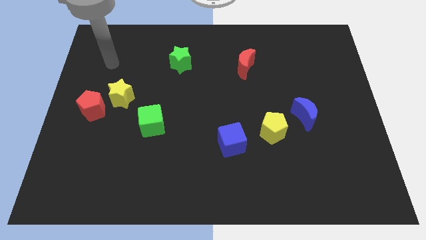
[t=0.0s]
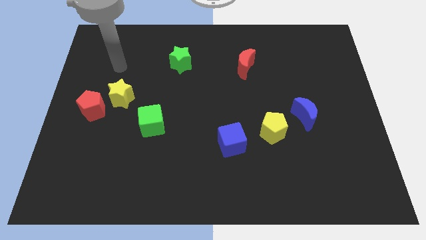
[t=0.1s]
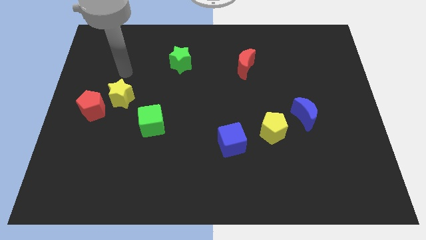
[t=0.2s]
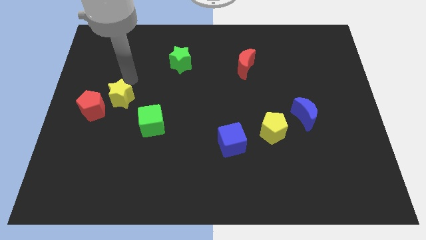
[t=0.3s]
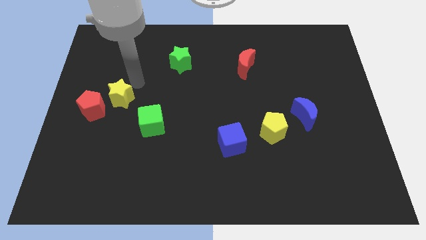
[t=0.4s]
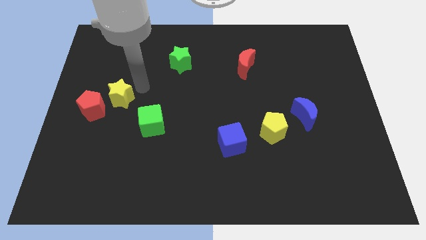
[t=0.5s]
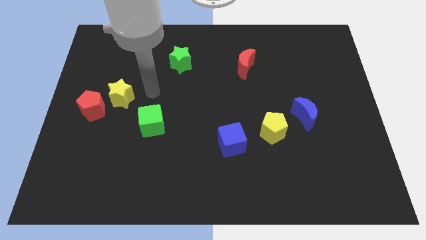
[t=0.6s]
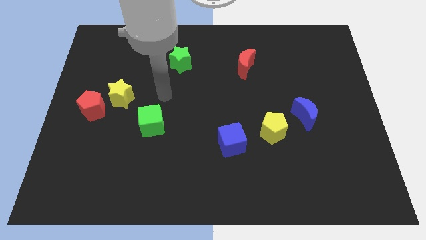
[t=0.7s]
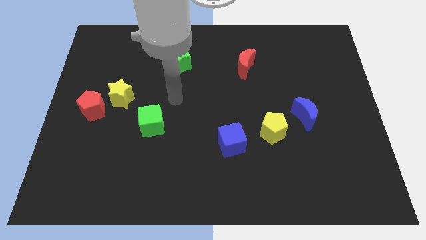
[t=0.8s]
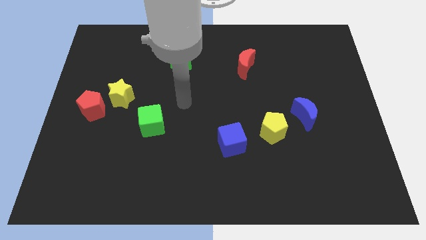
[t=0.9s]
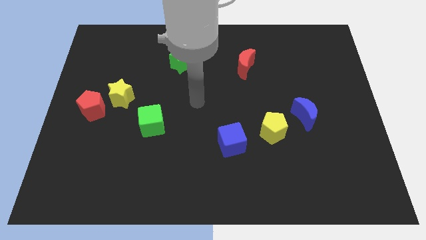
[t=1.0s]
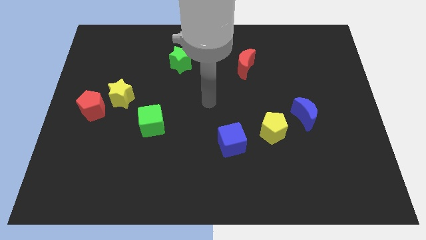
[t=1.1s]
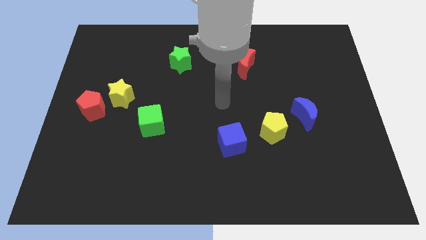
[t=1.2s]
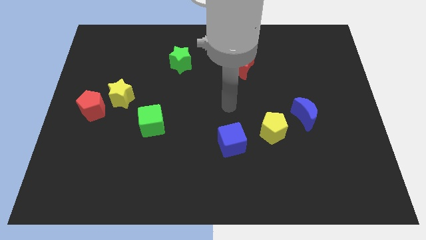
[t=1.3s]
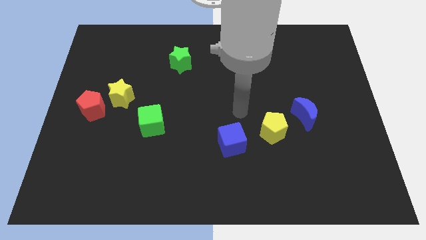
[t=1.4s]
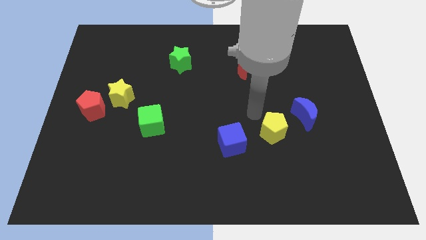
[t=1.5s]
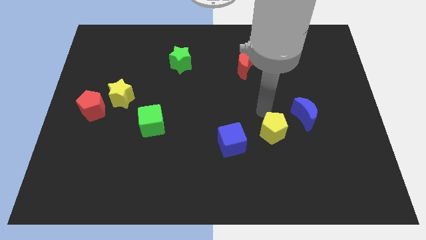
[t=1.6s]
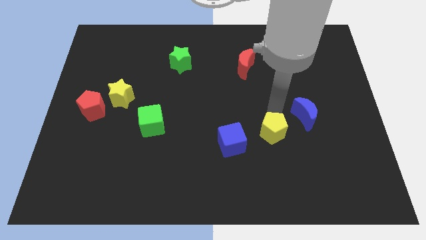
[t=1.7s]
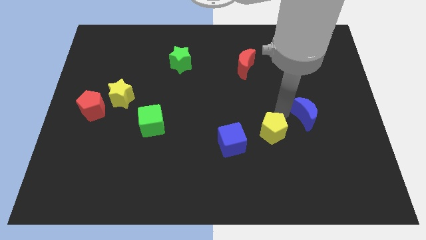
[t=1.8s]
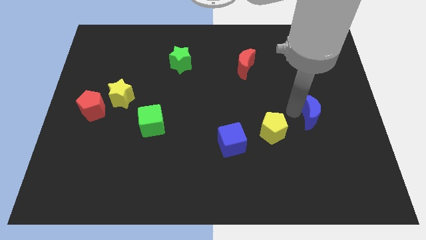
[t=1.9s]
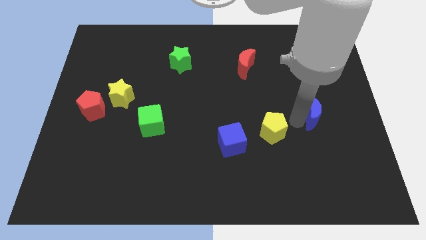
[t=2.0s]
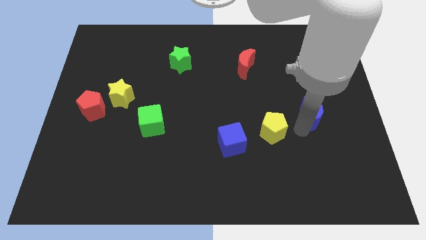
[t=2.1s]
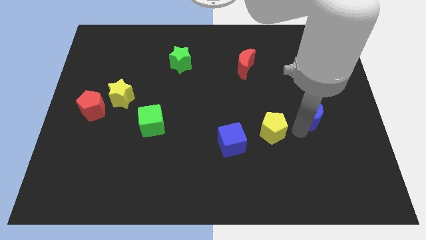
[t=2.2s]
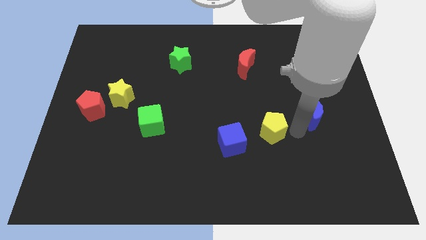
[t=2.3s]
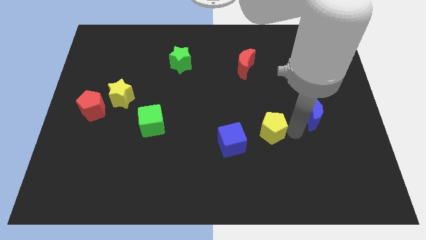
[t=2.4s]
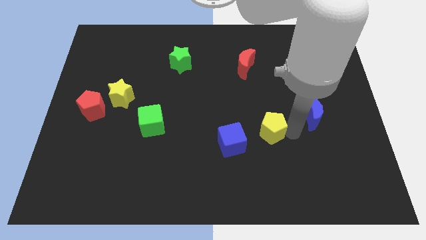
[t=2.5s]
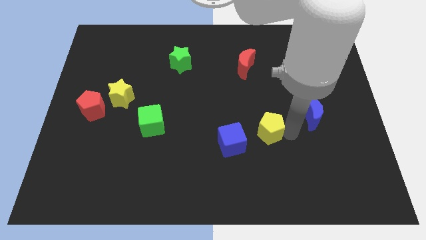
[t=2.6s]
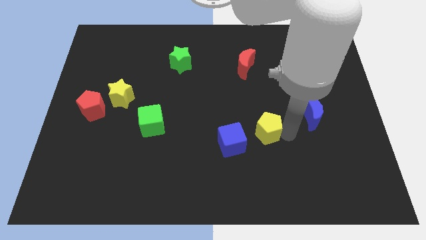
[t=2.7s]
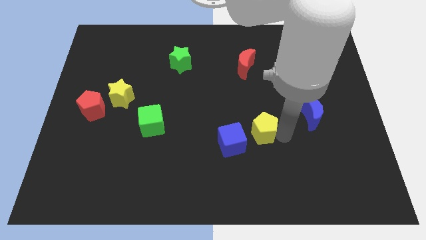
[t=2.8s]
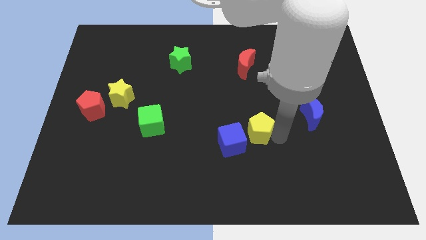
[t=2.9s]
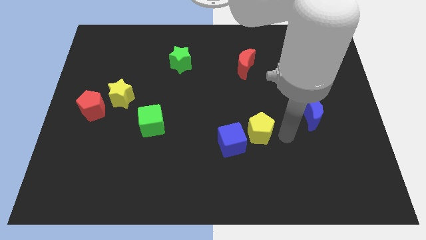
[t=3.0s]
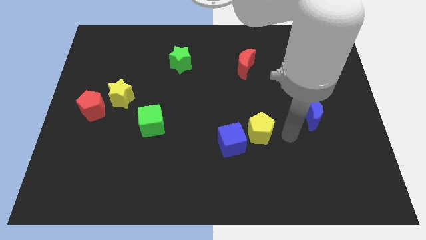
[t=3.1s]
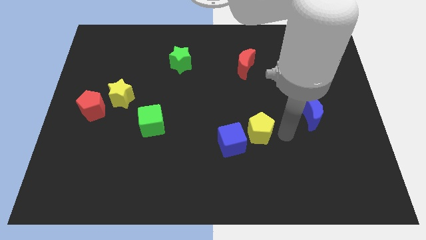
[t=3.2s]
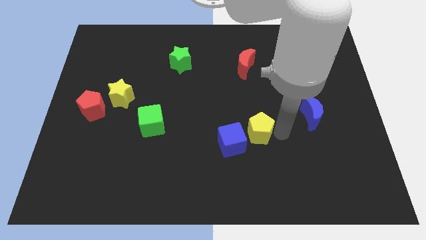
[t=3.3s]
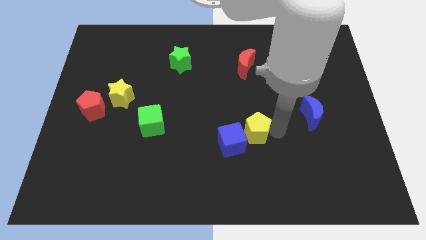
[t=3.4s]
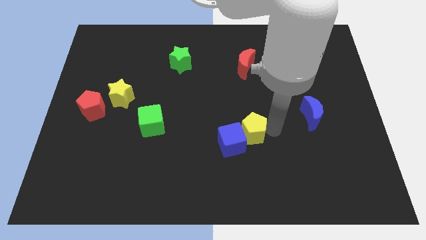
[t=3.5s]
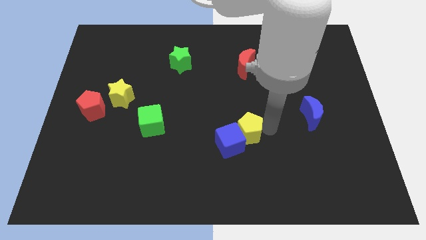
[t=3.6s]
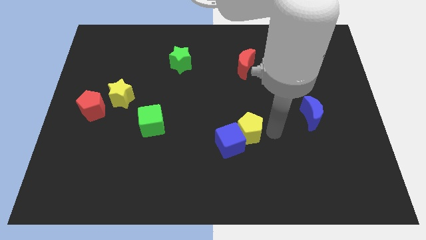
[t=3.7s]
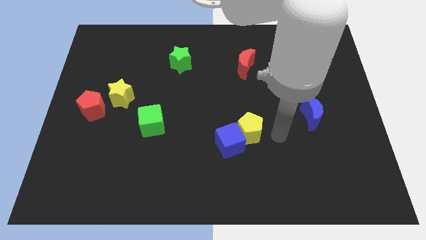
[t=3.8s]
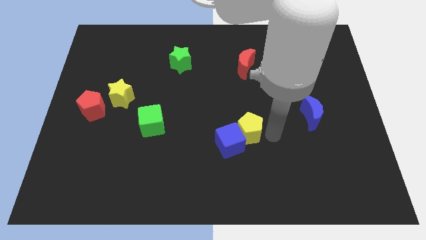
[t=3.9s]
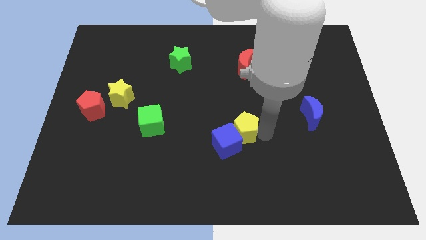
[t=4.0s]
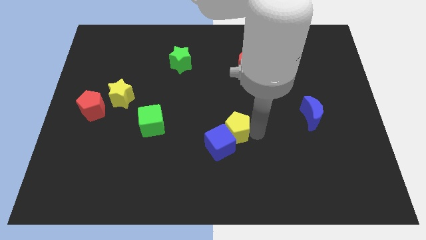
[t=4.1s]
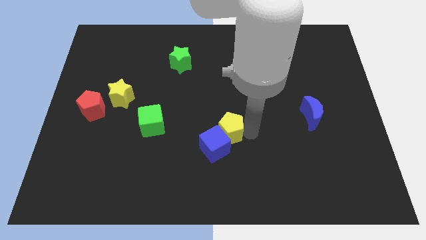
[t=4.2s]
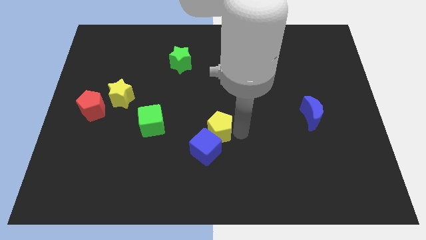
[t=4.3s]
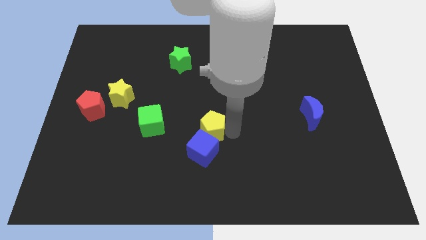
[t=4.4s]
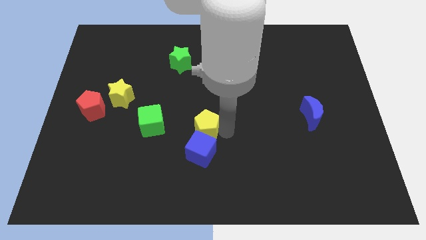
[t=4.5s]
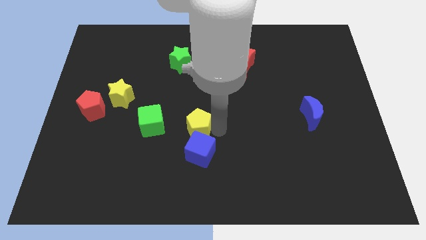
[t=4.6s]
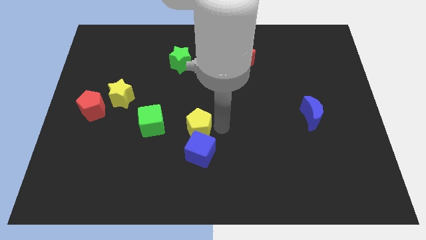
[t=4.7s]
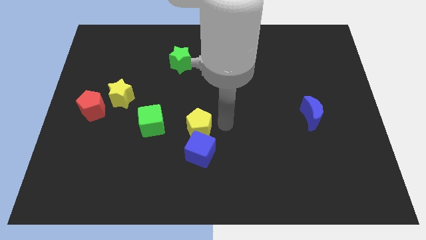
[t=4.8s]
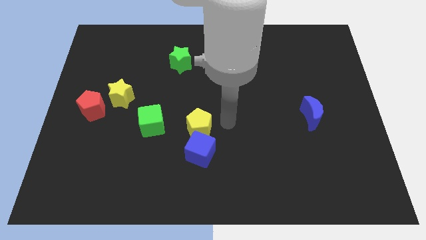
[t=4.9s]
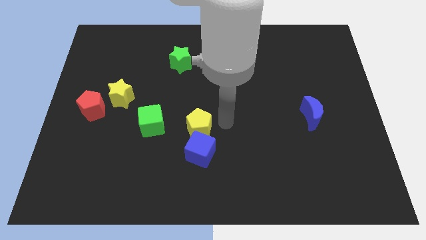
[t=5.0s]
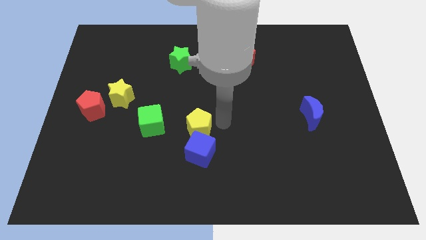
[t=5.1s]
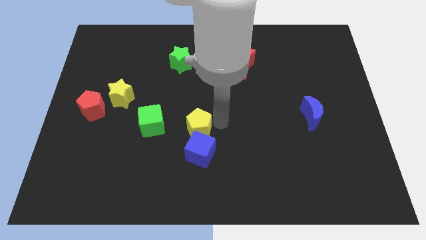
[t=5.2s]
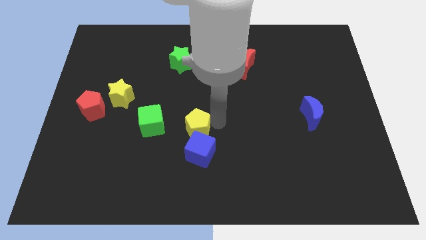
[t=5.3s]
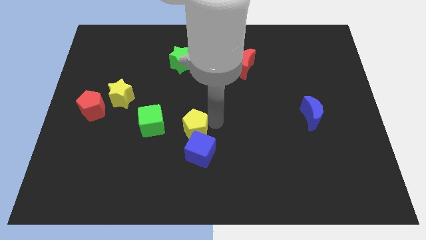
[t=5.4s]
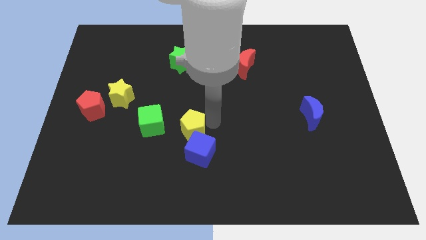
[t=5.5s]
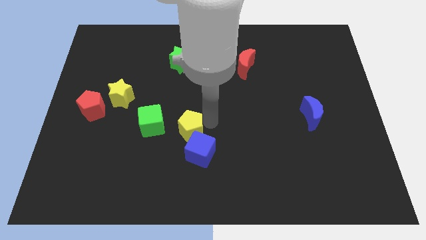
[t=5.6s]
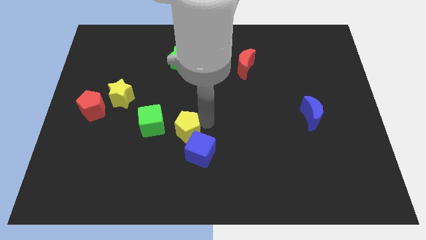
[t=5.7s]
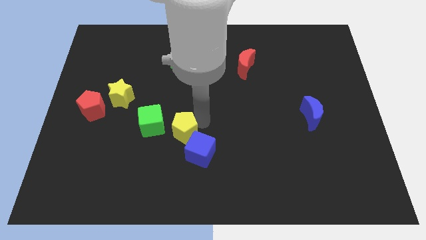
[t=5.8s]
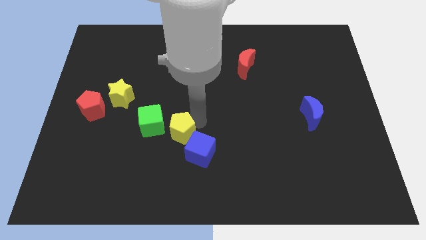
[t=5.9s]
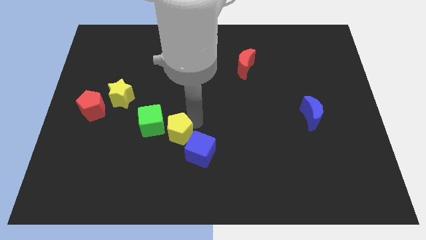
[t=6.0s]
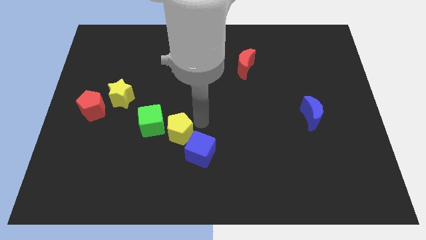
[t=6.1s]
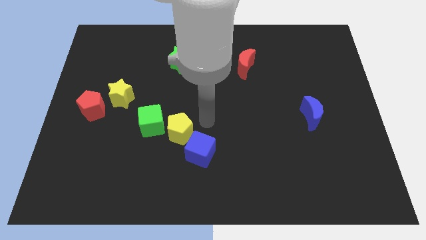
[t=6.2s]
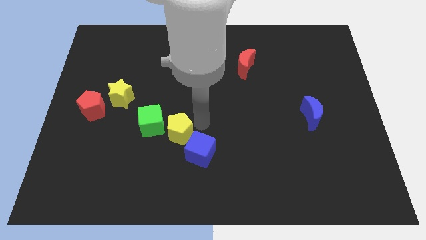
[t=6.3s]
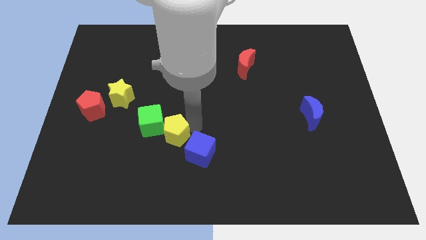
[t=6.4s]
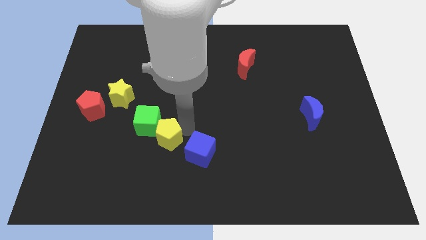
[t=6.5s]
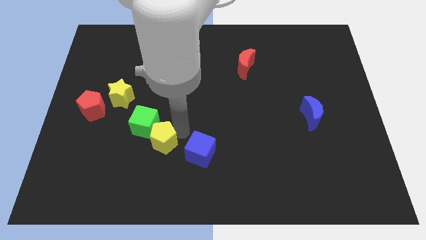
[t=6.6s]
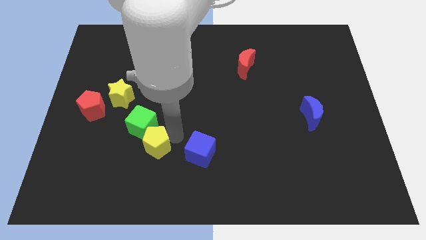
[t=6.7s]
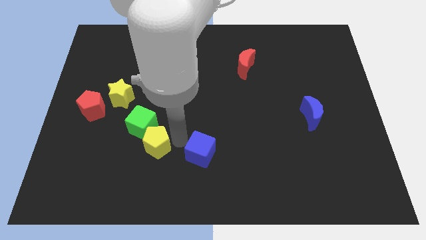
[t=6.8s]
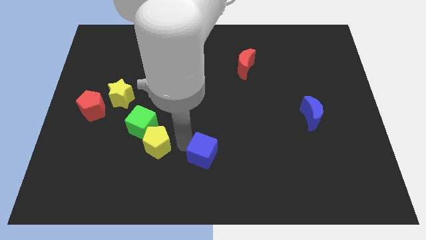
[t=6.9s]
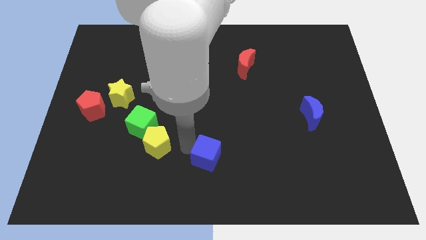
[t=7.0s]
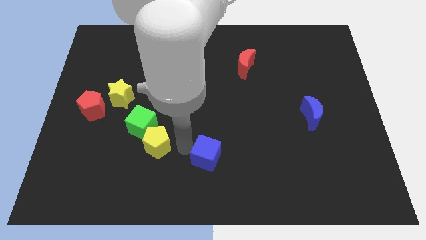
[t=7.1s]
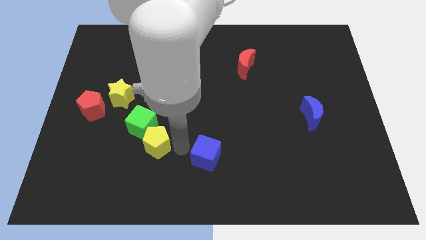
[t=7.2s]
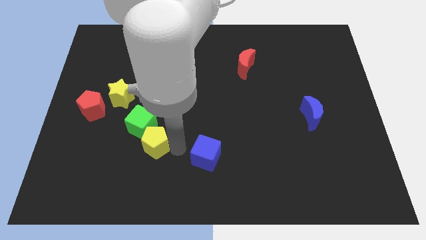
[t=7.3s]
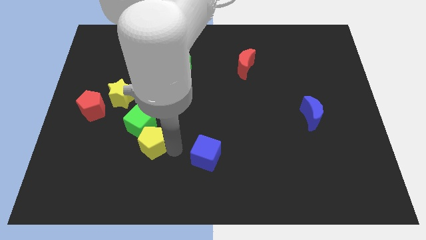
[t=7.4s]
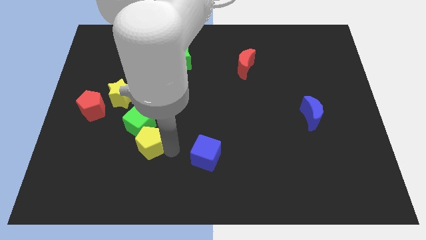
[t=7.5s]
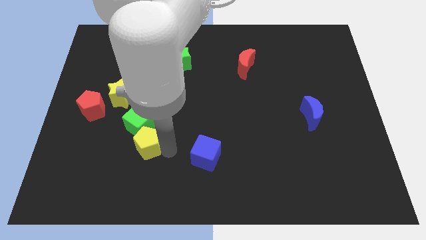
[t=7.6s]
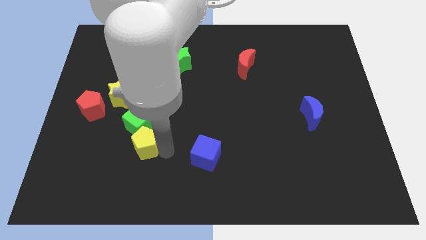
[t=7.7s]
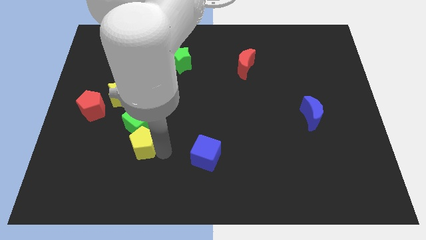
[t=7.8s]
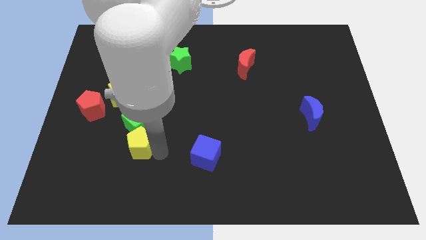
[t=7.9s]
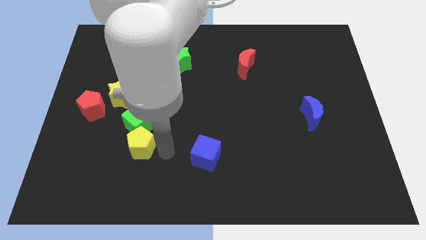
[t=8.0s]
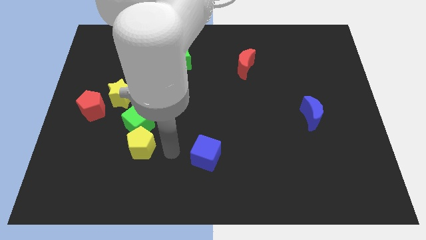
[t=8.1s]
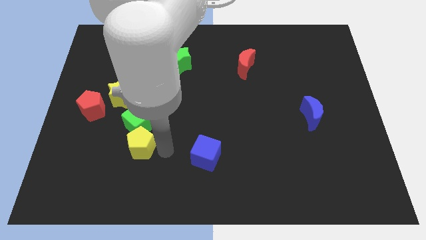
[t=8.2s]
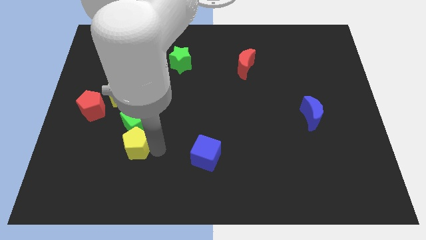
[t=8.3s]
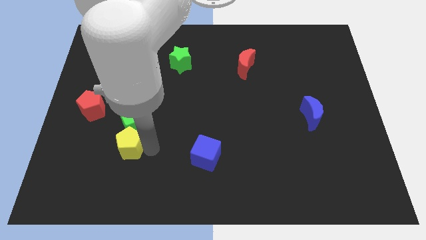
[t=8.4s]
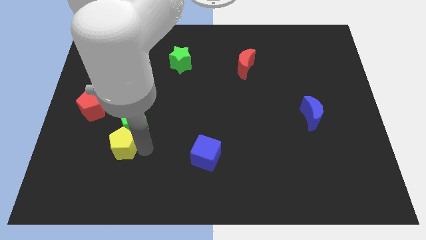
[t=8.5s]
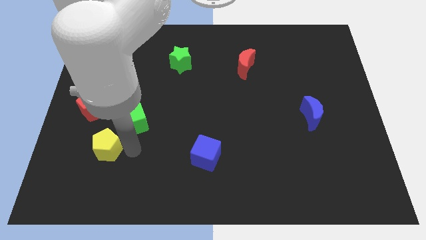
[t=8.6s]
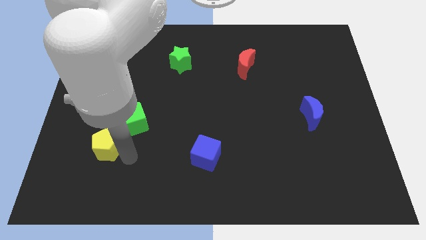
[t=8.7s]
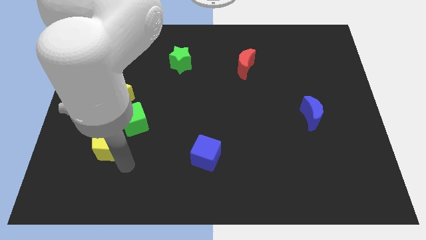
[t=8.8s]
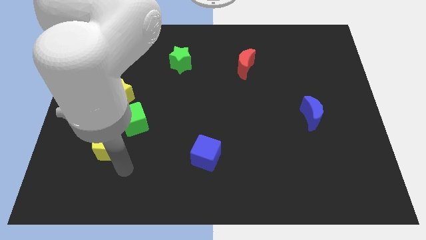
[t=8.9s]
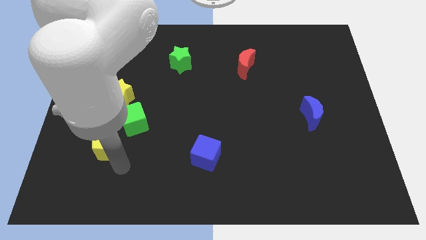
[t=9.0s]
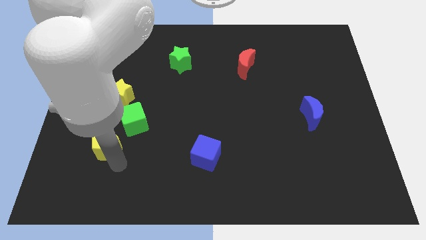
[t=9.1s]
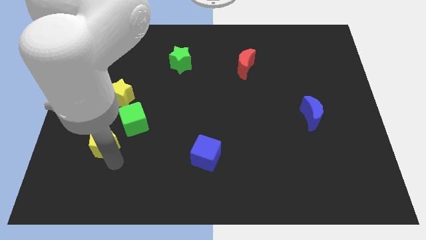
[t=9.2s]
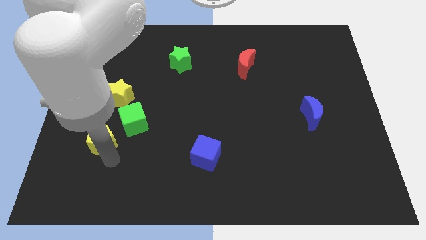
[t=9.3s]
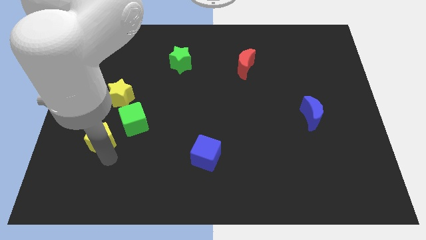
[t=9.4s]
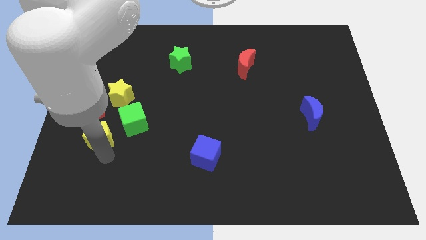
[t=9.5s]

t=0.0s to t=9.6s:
put the yellow pentagon just left of the green cube
